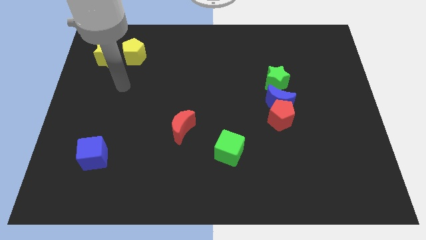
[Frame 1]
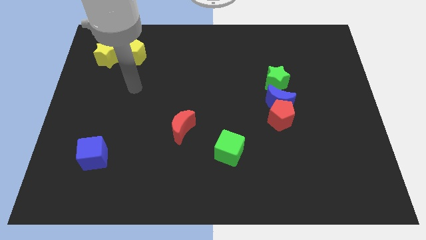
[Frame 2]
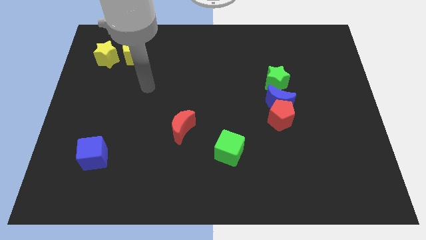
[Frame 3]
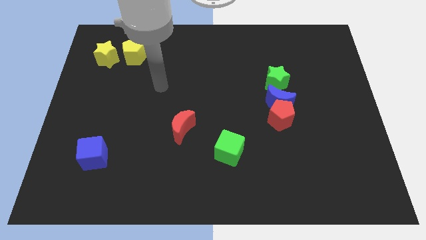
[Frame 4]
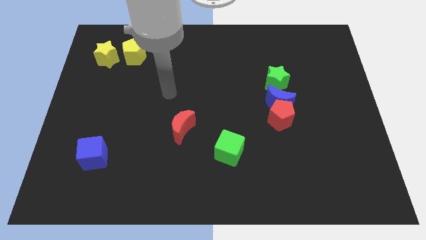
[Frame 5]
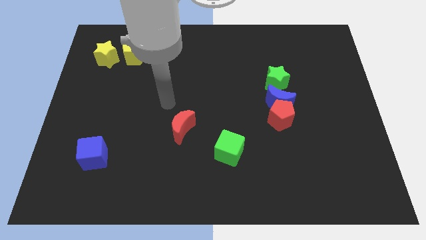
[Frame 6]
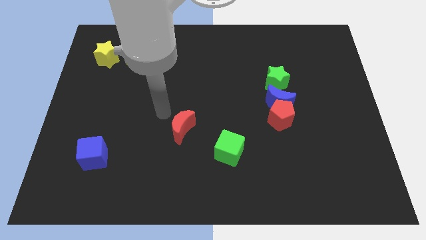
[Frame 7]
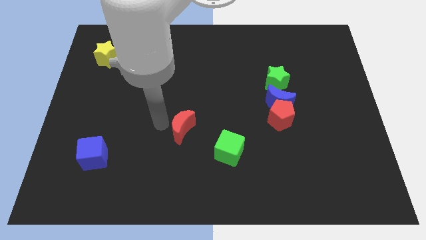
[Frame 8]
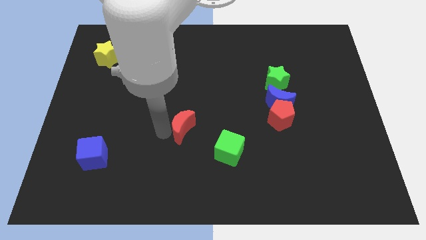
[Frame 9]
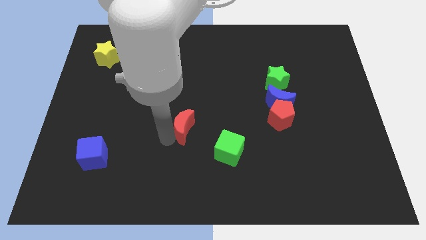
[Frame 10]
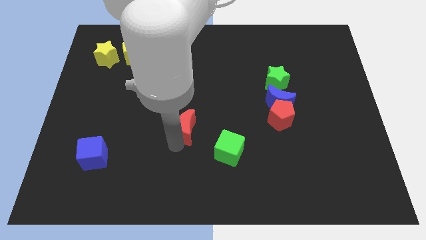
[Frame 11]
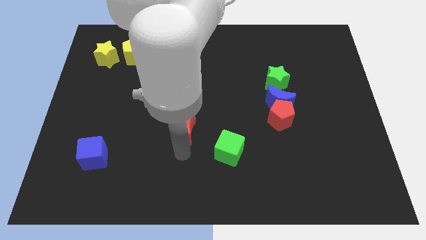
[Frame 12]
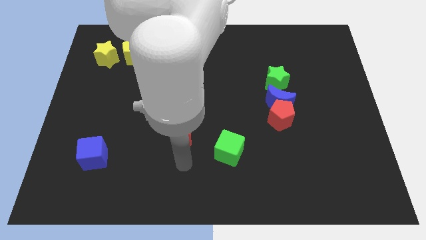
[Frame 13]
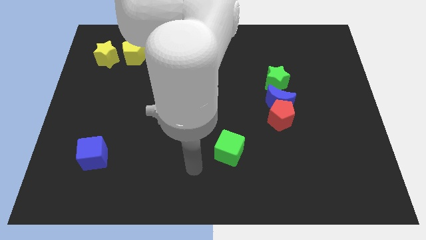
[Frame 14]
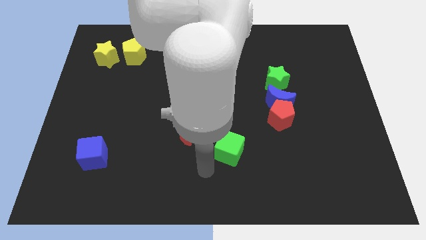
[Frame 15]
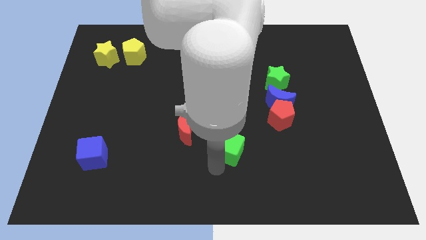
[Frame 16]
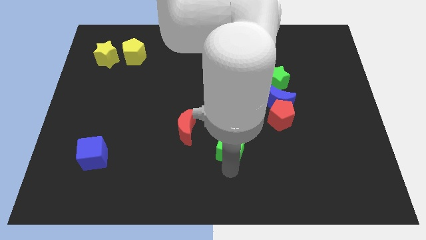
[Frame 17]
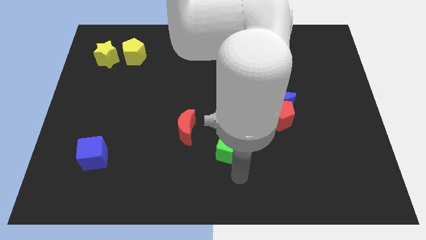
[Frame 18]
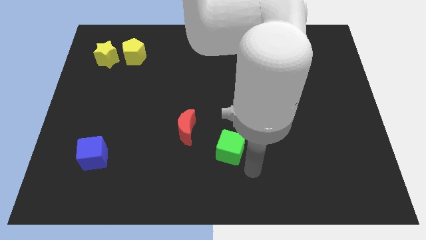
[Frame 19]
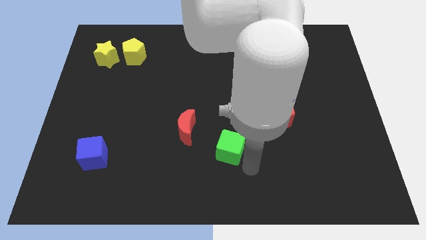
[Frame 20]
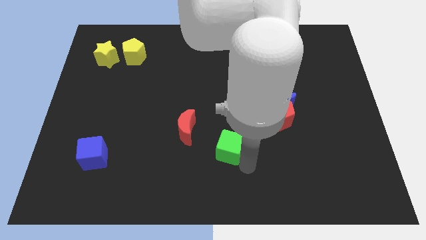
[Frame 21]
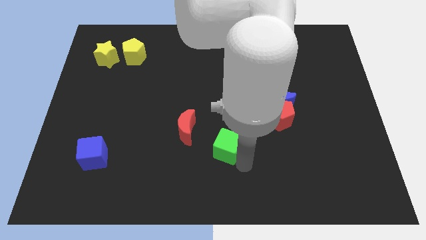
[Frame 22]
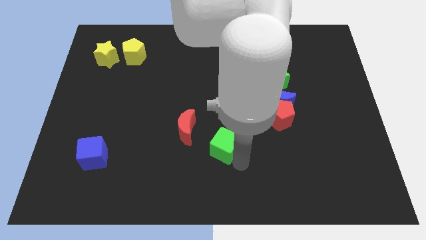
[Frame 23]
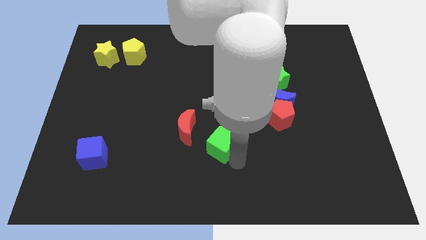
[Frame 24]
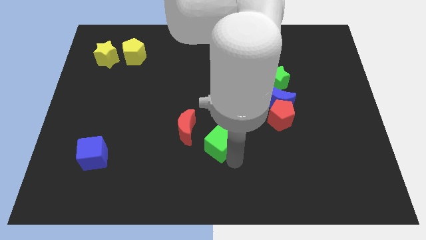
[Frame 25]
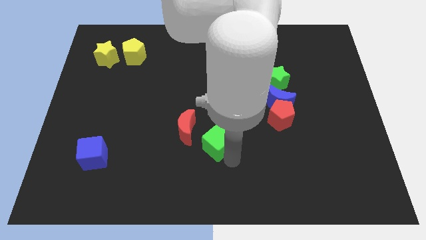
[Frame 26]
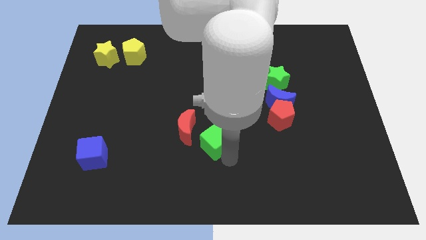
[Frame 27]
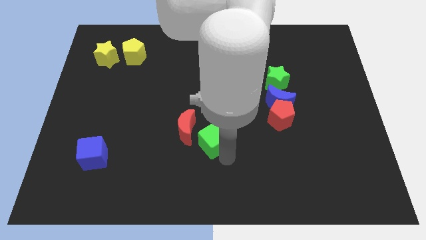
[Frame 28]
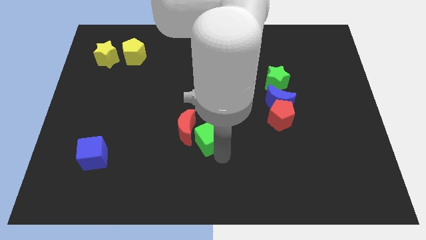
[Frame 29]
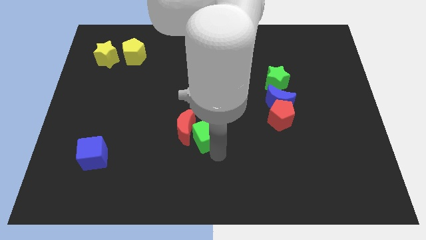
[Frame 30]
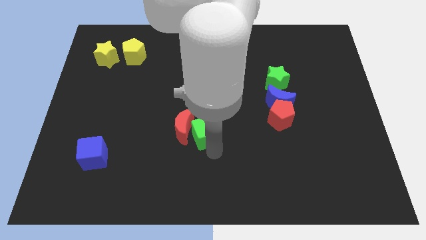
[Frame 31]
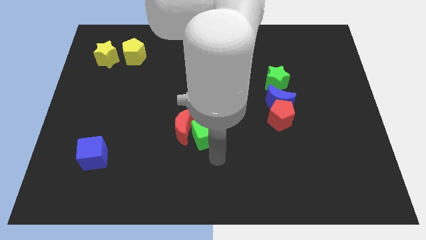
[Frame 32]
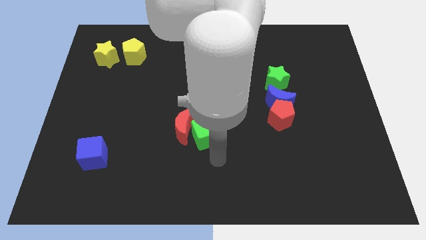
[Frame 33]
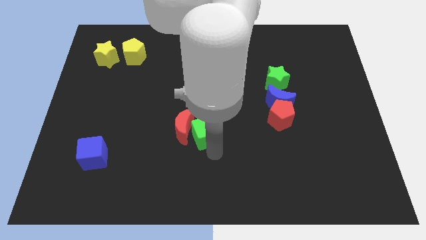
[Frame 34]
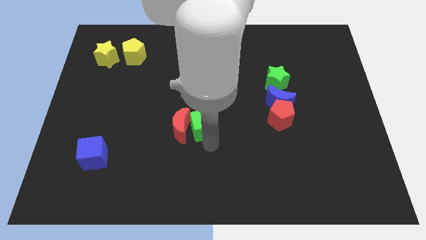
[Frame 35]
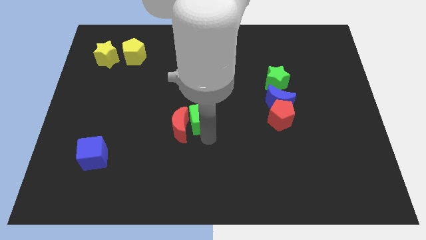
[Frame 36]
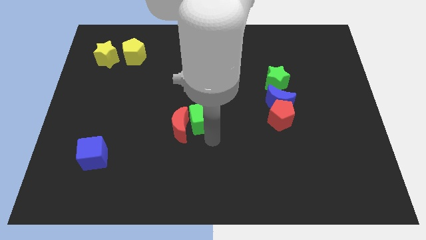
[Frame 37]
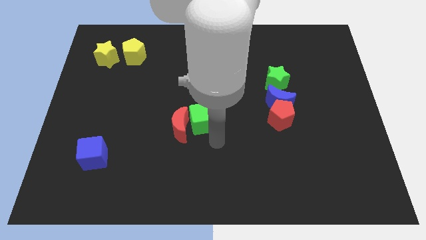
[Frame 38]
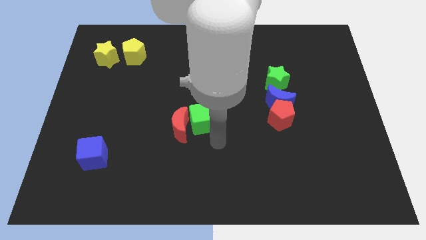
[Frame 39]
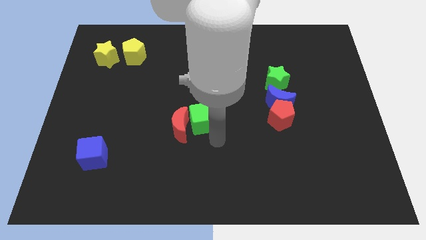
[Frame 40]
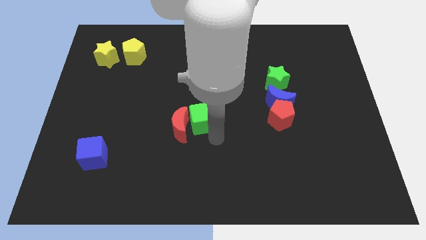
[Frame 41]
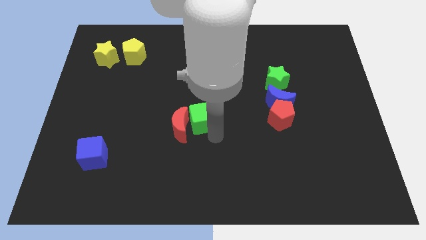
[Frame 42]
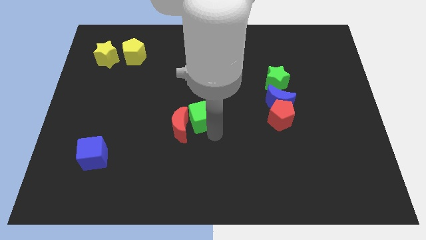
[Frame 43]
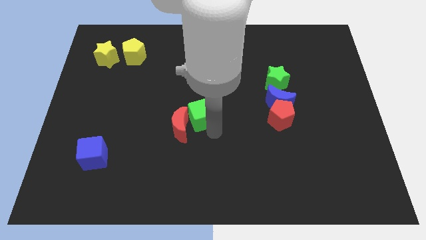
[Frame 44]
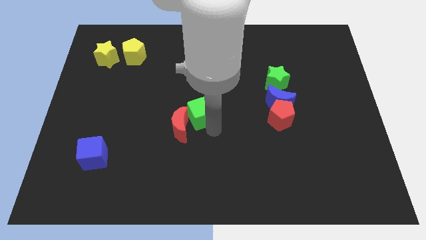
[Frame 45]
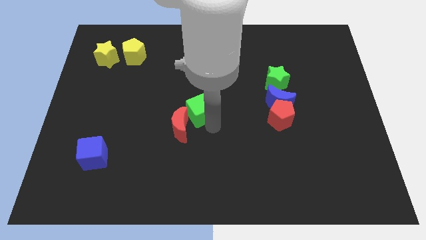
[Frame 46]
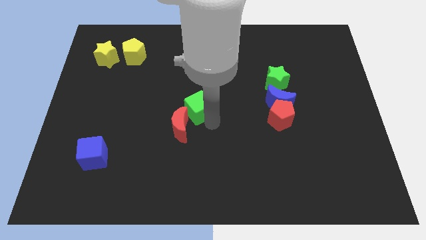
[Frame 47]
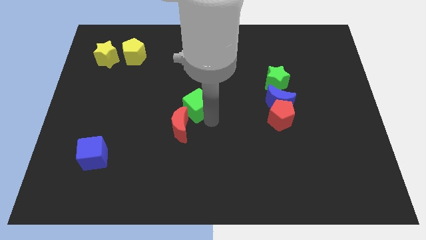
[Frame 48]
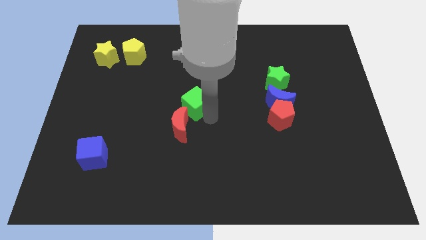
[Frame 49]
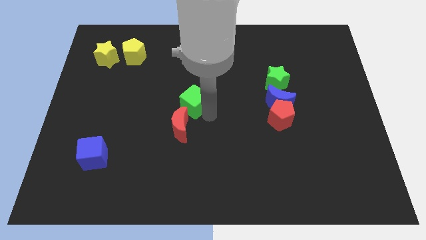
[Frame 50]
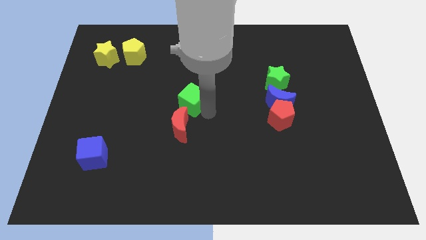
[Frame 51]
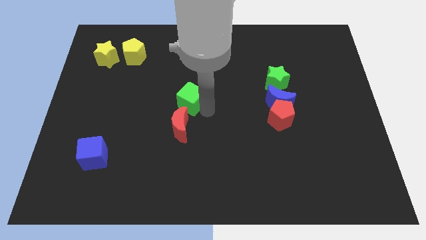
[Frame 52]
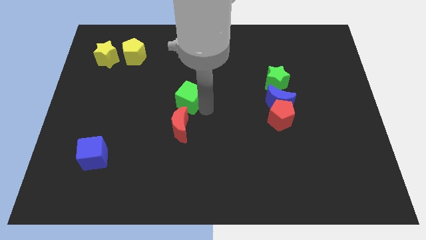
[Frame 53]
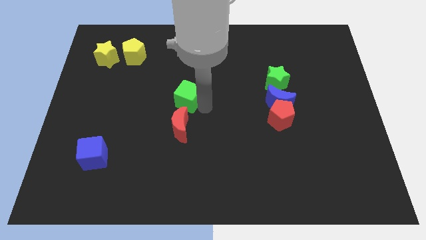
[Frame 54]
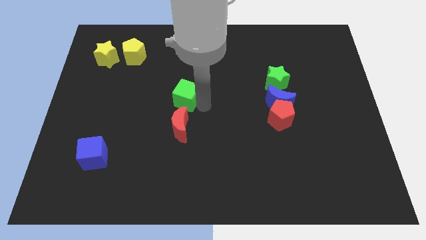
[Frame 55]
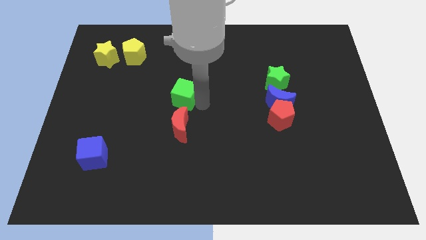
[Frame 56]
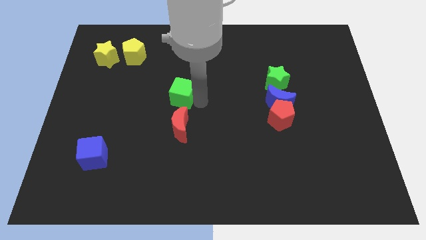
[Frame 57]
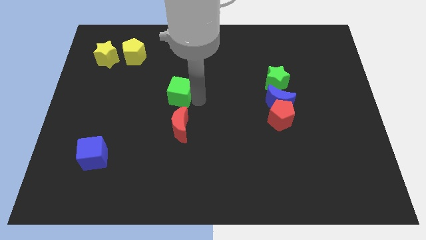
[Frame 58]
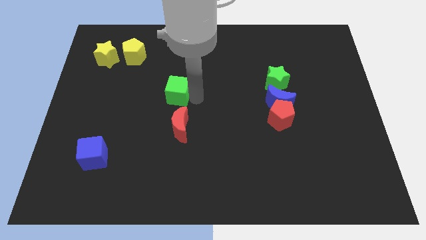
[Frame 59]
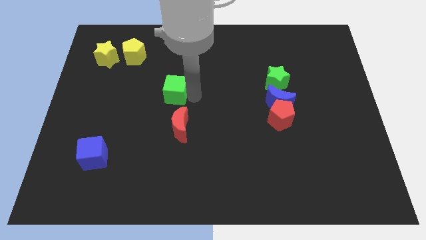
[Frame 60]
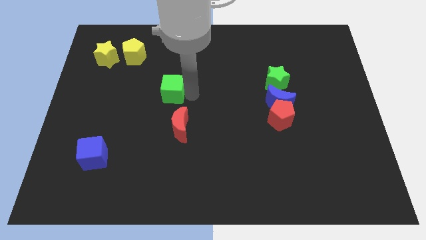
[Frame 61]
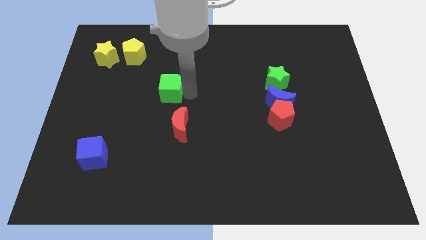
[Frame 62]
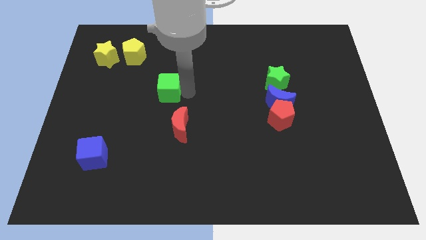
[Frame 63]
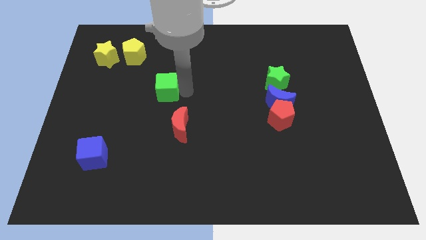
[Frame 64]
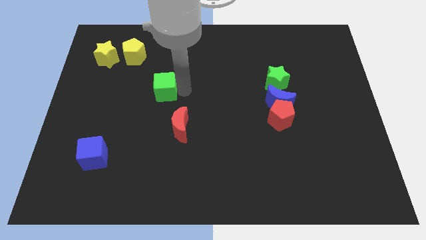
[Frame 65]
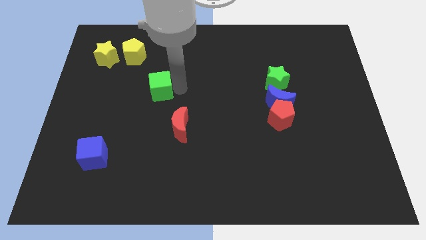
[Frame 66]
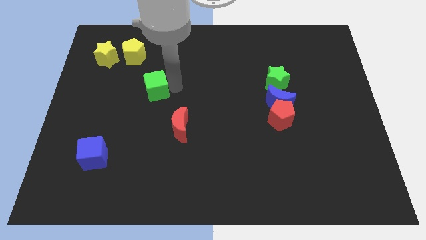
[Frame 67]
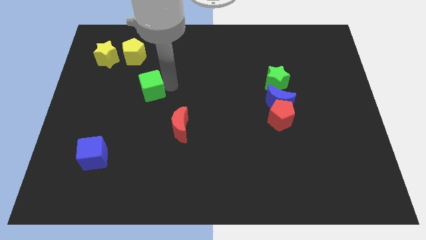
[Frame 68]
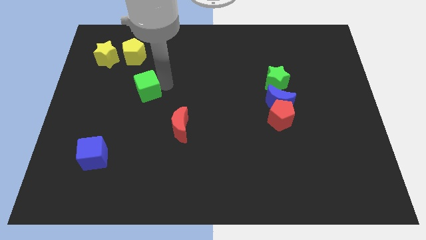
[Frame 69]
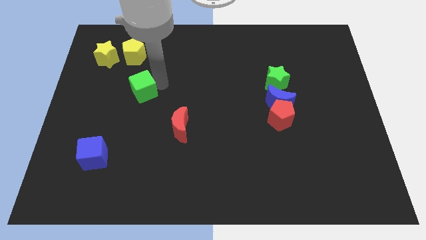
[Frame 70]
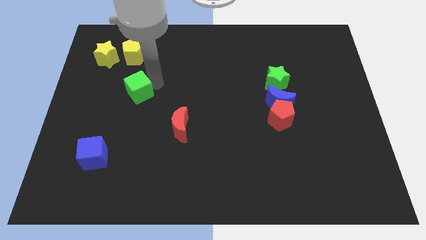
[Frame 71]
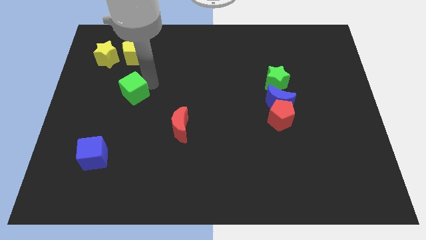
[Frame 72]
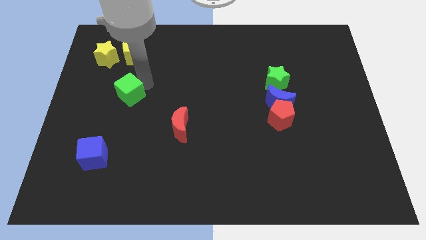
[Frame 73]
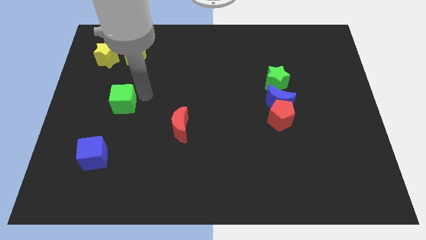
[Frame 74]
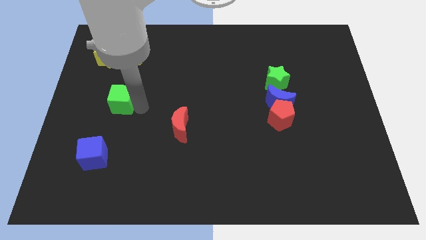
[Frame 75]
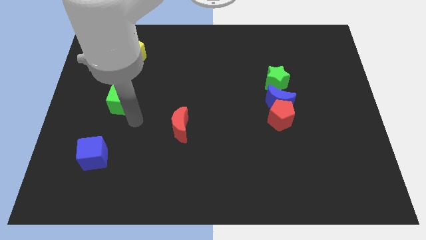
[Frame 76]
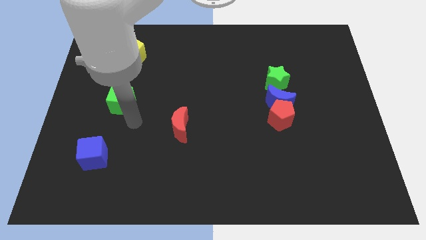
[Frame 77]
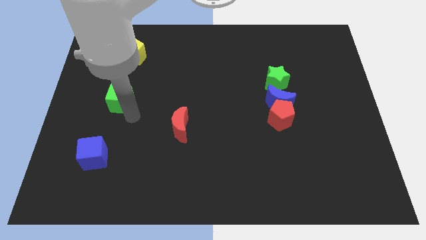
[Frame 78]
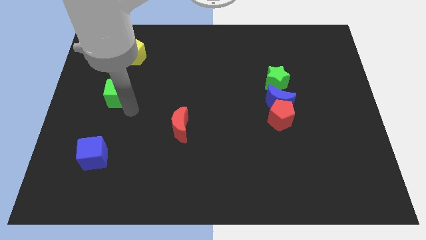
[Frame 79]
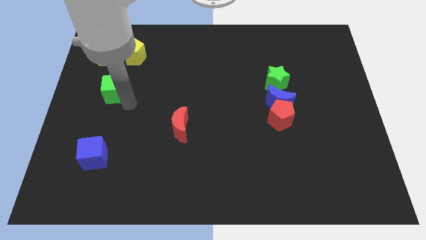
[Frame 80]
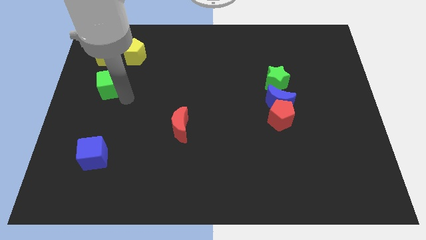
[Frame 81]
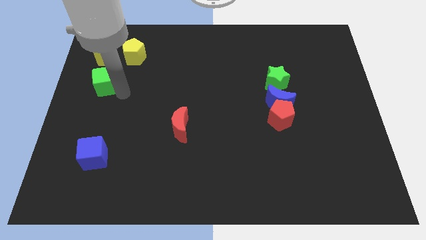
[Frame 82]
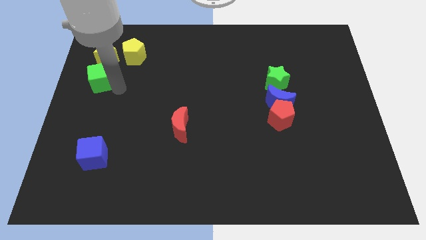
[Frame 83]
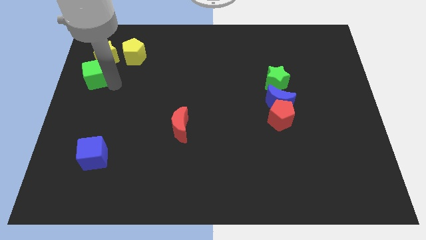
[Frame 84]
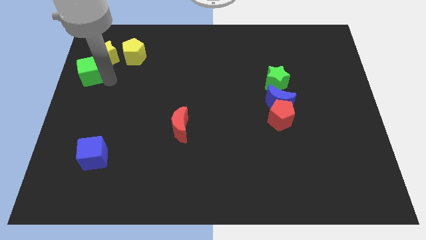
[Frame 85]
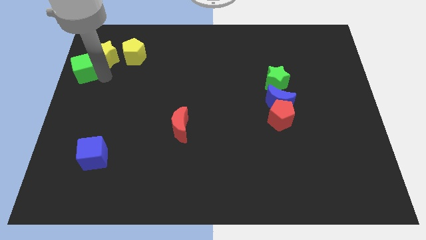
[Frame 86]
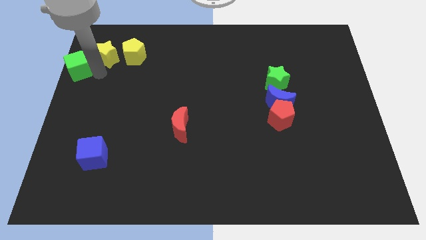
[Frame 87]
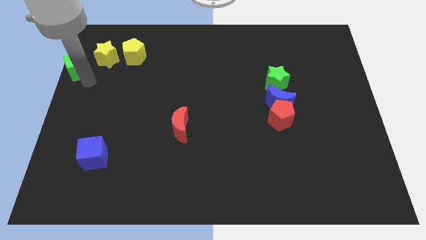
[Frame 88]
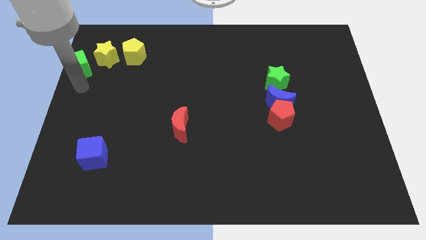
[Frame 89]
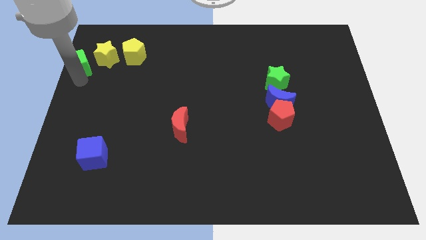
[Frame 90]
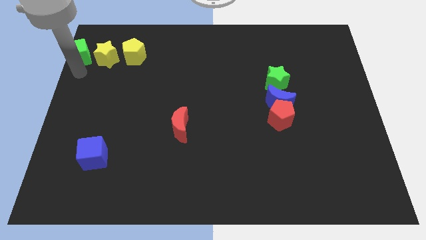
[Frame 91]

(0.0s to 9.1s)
push the green cube to the top left of the board
